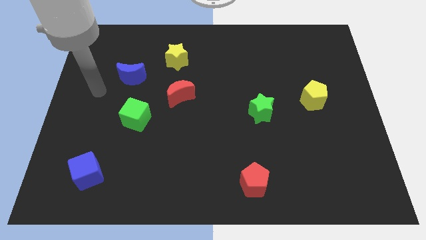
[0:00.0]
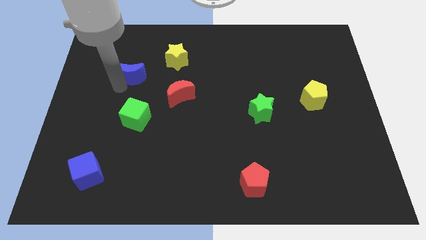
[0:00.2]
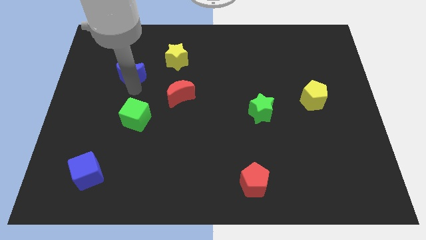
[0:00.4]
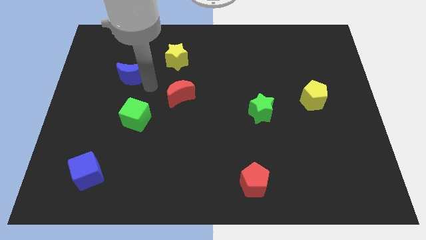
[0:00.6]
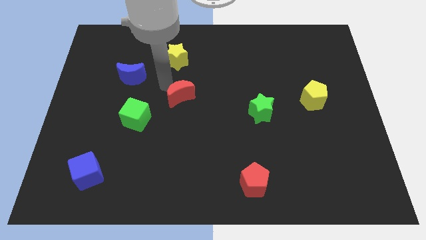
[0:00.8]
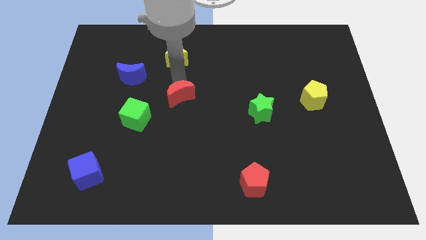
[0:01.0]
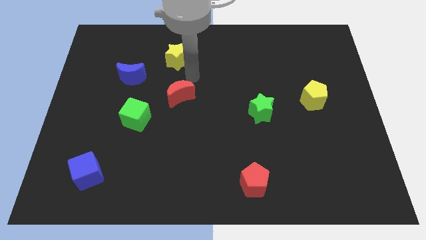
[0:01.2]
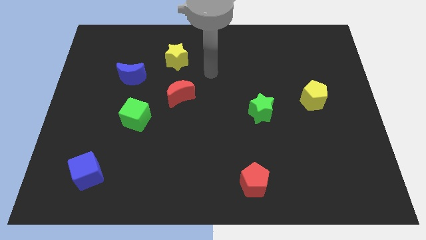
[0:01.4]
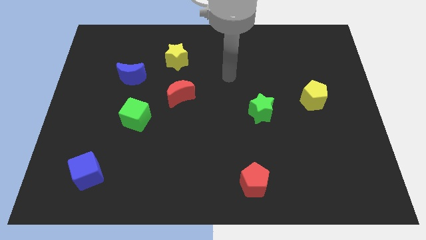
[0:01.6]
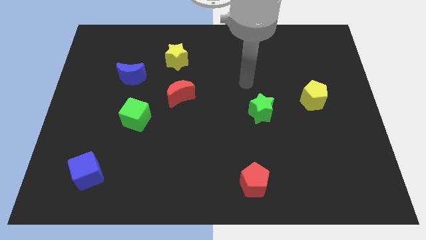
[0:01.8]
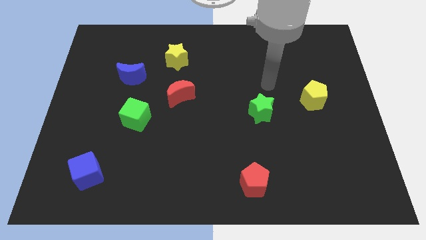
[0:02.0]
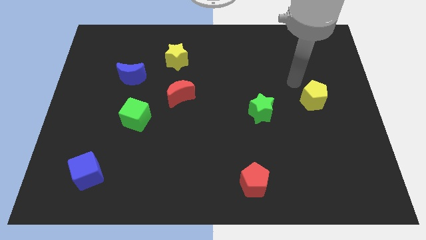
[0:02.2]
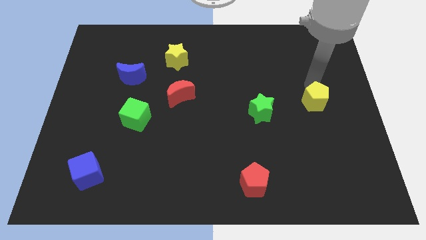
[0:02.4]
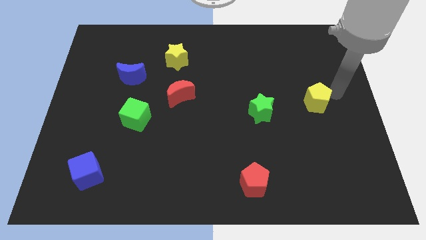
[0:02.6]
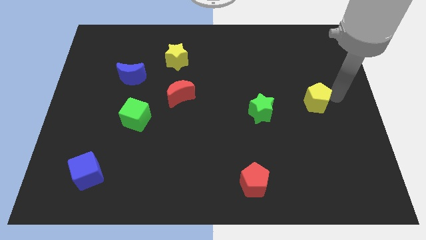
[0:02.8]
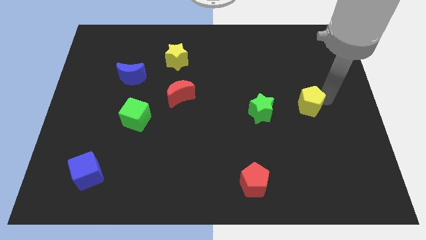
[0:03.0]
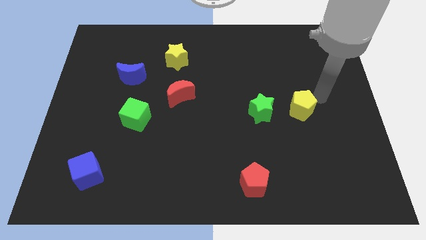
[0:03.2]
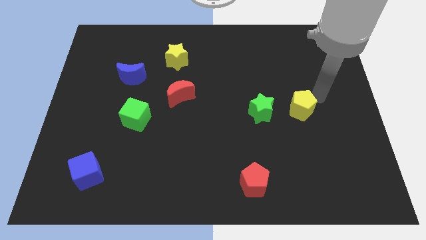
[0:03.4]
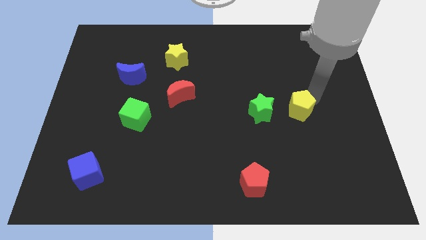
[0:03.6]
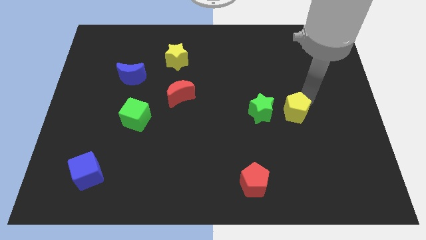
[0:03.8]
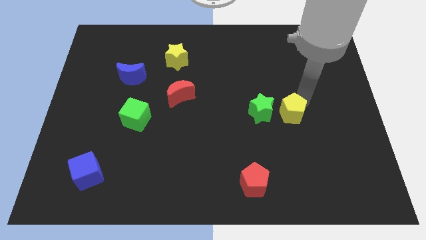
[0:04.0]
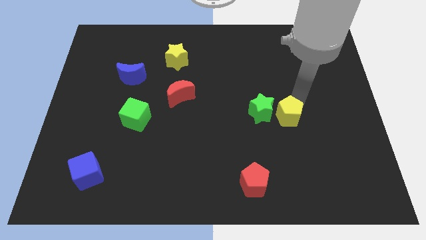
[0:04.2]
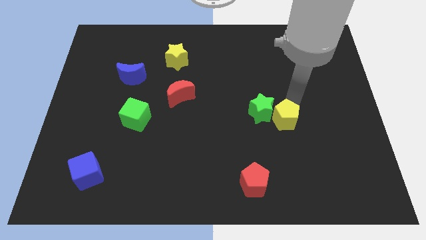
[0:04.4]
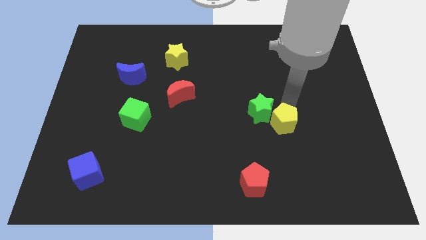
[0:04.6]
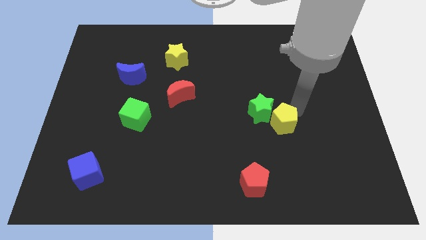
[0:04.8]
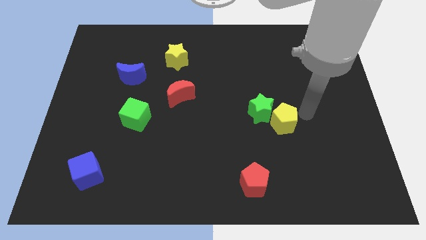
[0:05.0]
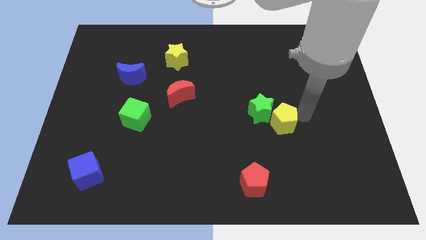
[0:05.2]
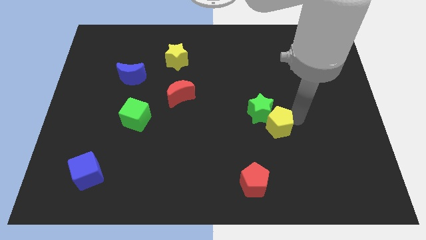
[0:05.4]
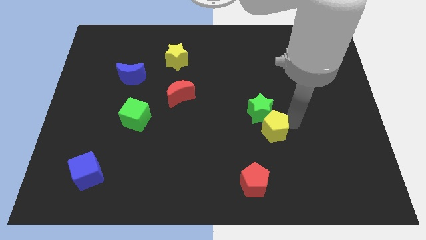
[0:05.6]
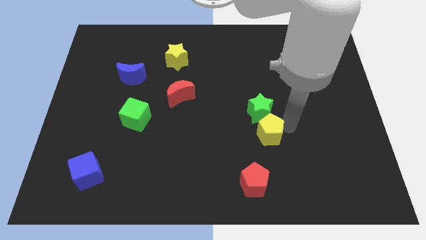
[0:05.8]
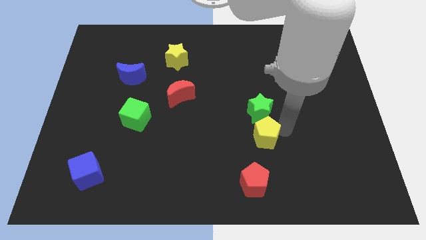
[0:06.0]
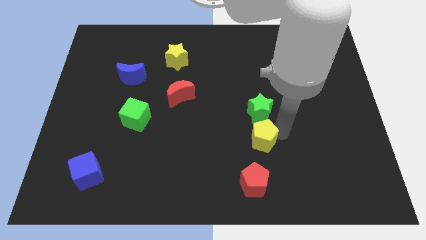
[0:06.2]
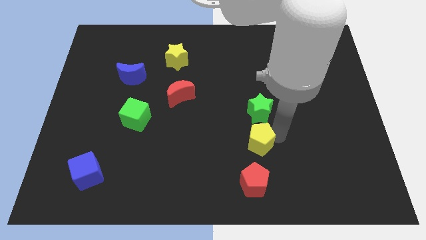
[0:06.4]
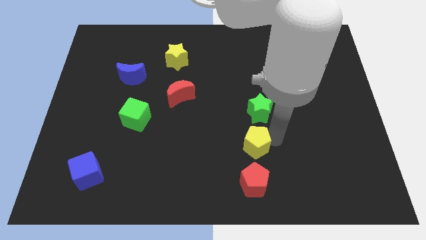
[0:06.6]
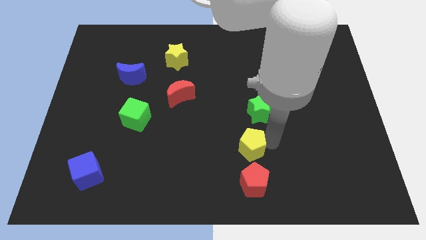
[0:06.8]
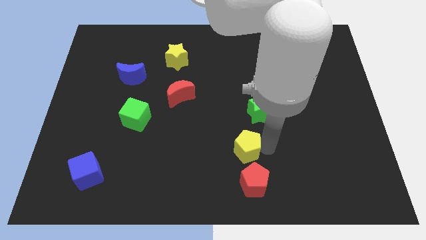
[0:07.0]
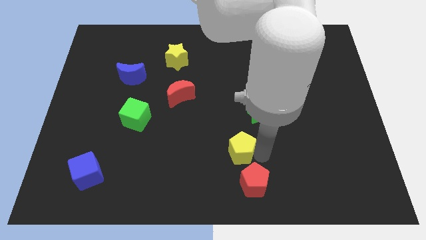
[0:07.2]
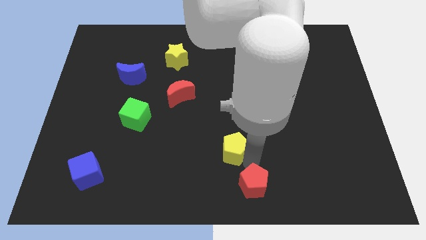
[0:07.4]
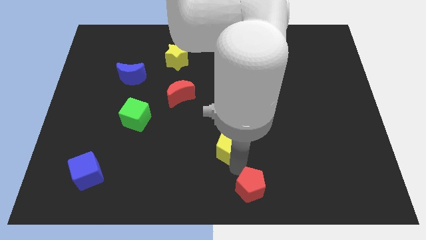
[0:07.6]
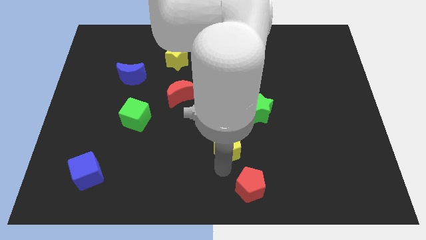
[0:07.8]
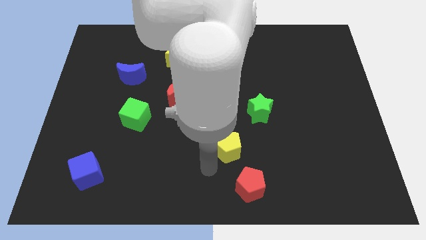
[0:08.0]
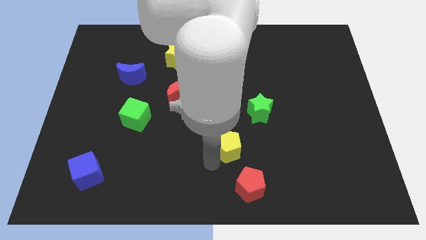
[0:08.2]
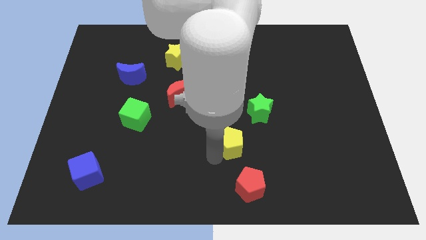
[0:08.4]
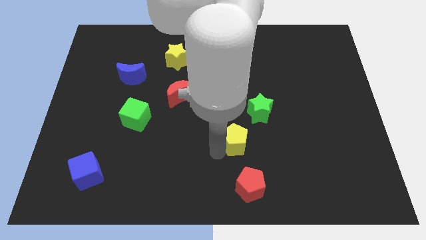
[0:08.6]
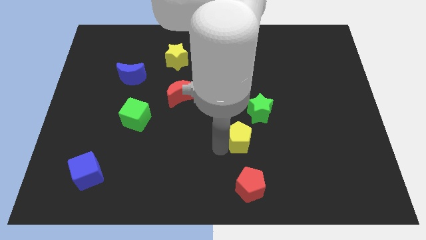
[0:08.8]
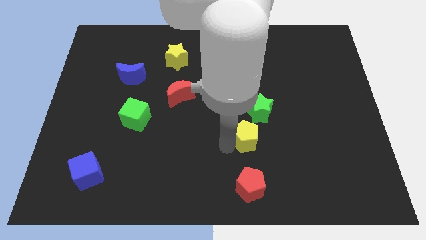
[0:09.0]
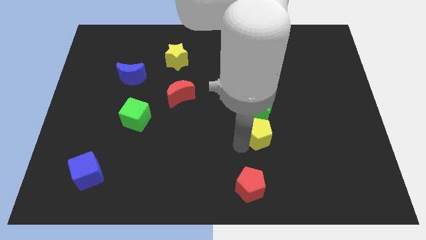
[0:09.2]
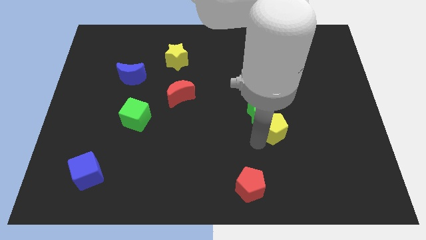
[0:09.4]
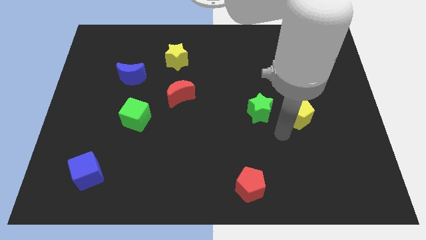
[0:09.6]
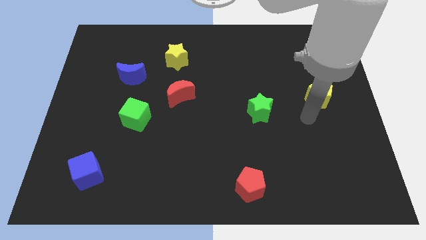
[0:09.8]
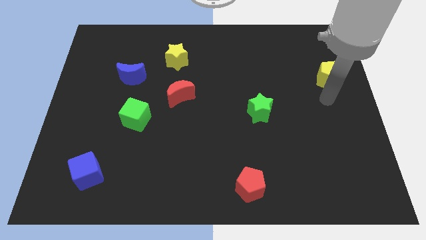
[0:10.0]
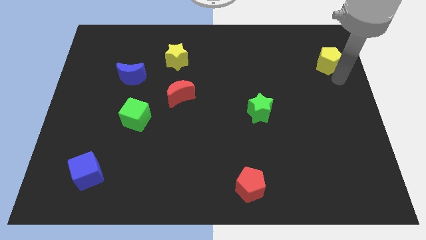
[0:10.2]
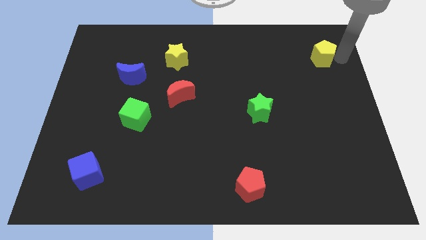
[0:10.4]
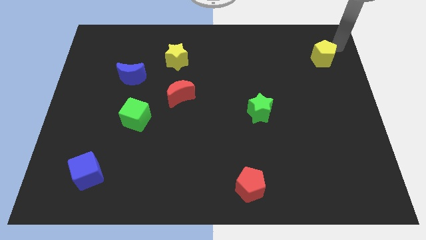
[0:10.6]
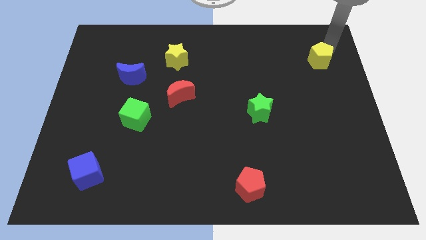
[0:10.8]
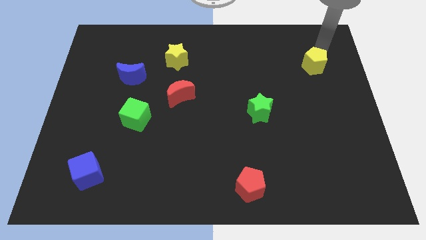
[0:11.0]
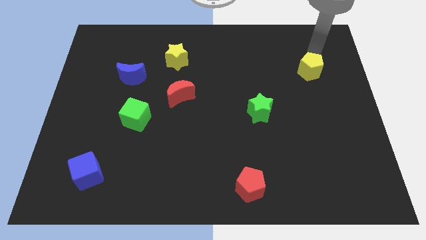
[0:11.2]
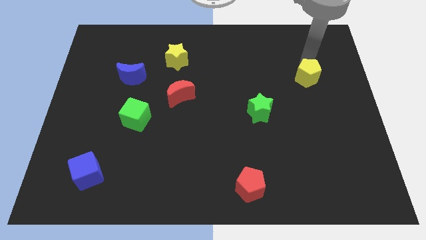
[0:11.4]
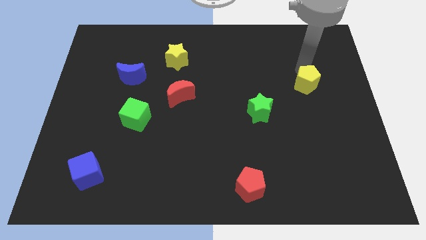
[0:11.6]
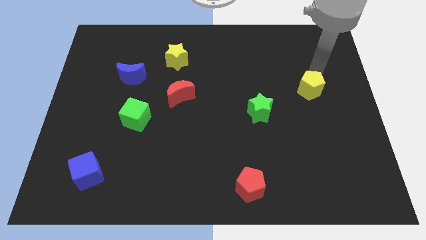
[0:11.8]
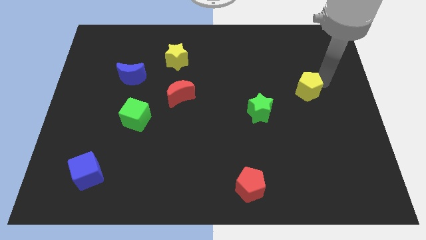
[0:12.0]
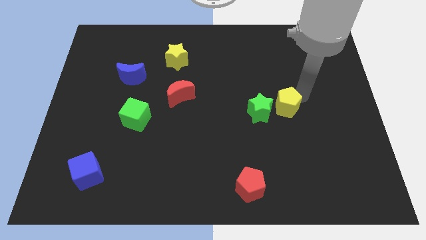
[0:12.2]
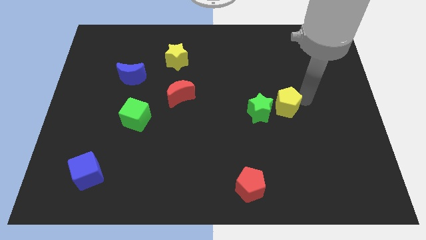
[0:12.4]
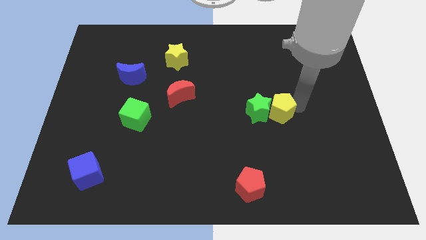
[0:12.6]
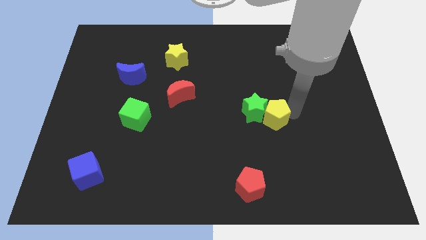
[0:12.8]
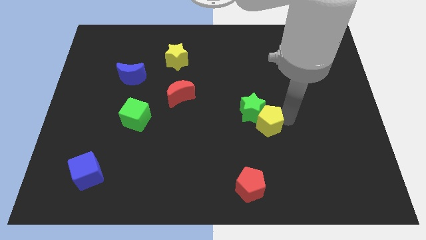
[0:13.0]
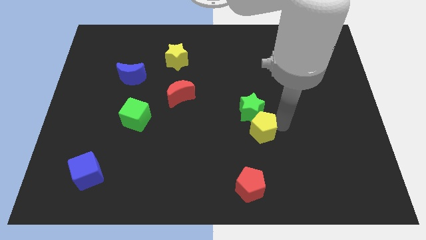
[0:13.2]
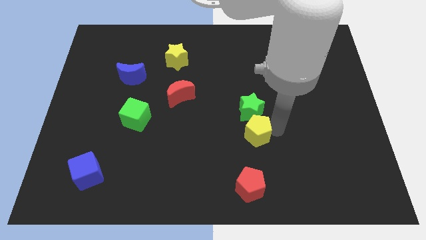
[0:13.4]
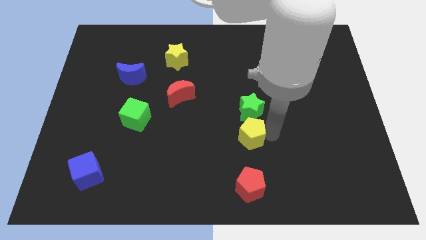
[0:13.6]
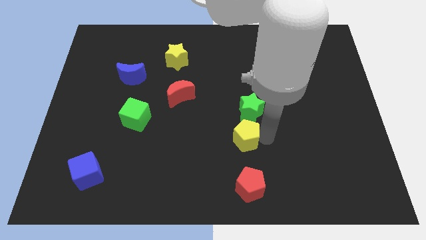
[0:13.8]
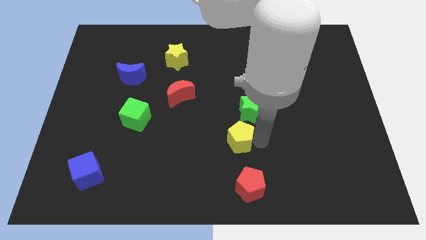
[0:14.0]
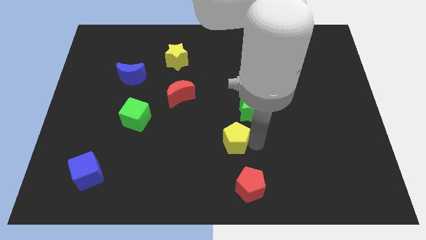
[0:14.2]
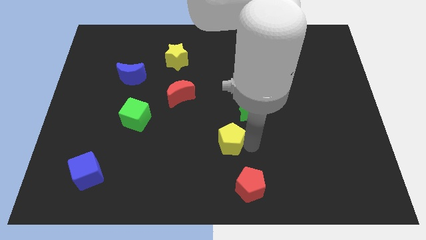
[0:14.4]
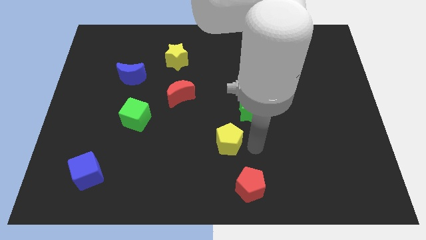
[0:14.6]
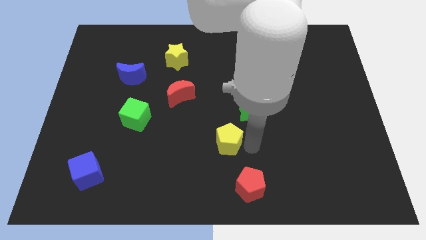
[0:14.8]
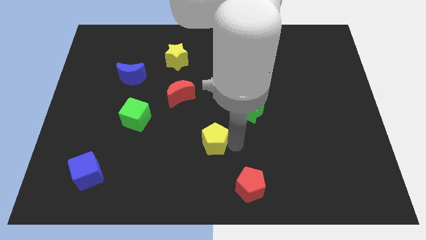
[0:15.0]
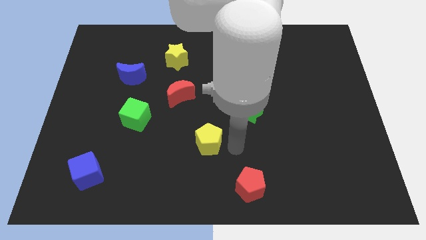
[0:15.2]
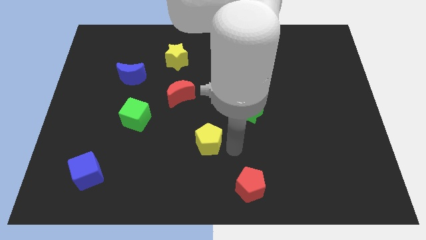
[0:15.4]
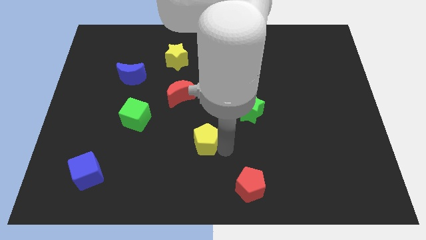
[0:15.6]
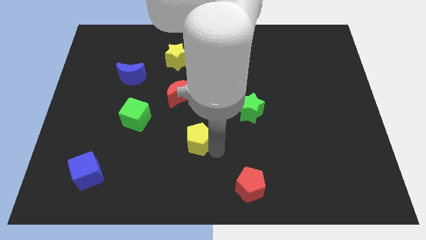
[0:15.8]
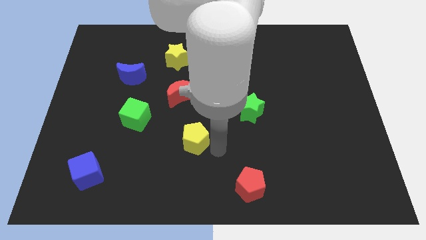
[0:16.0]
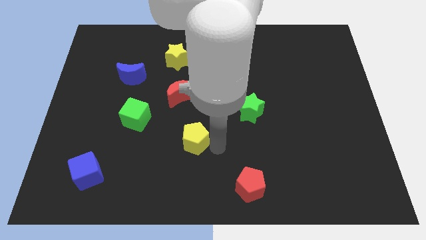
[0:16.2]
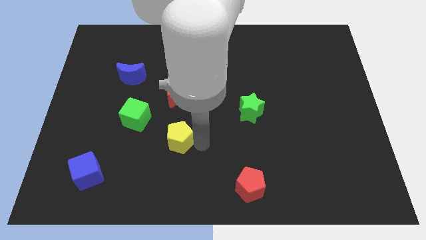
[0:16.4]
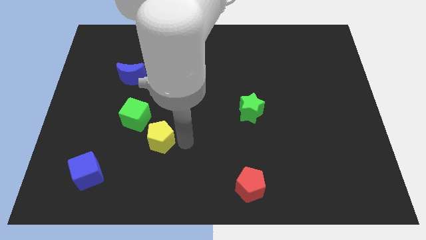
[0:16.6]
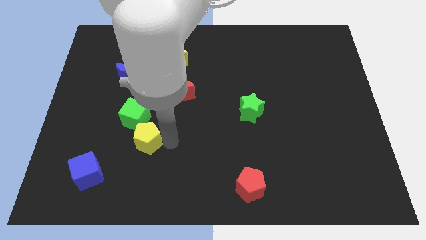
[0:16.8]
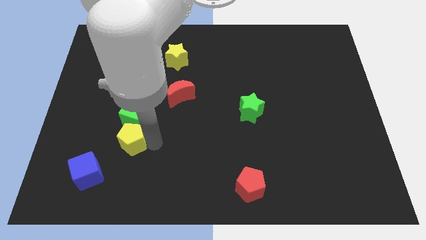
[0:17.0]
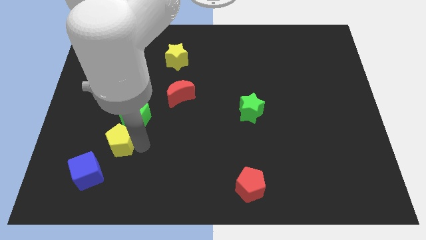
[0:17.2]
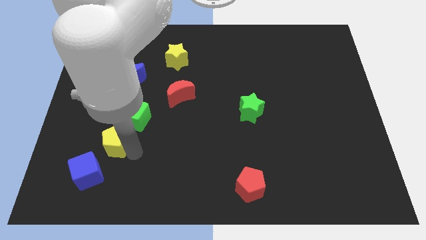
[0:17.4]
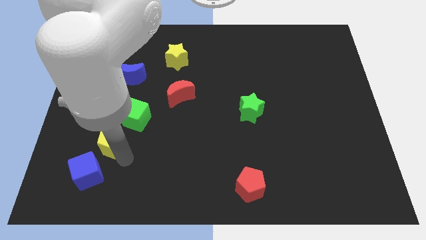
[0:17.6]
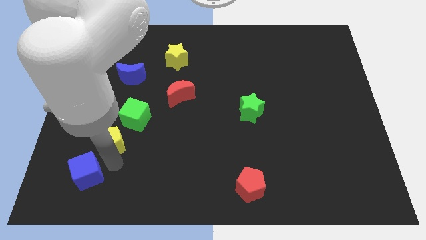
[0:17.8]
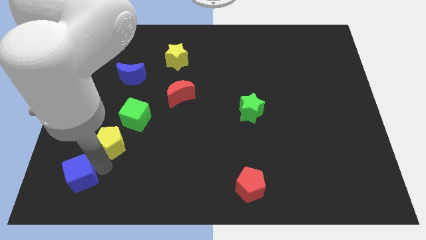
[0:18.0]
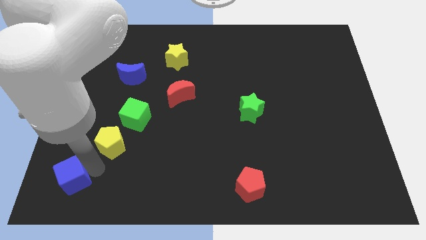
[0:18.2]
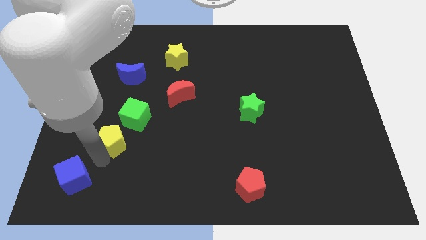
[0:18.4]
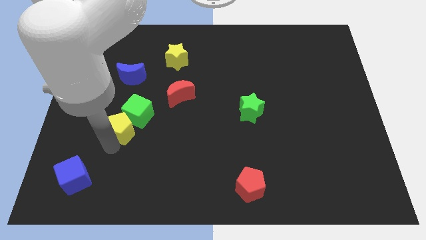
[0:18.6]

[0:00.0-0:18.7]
slide the yellow pentagon below the blue moon
